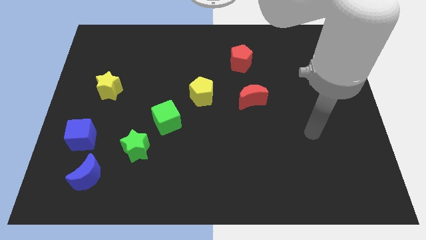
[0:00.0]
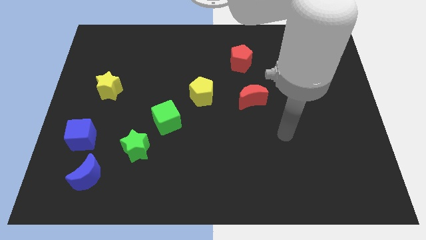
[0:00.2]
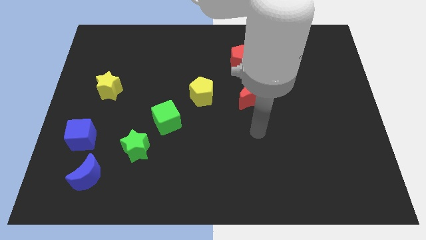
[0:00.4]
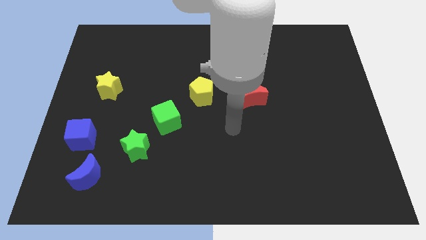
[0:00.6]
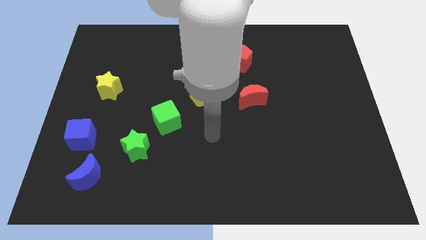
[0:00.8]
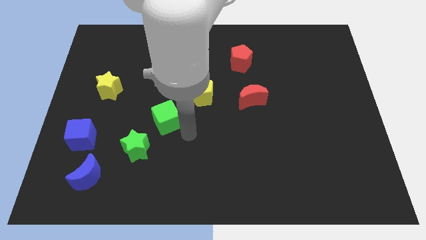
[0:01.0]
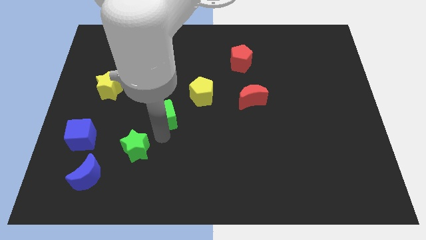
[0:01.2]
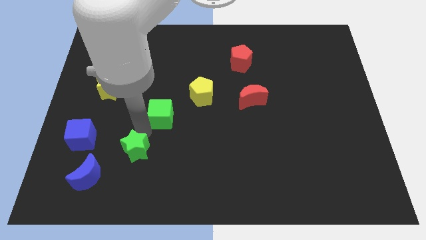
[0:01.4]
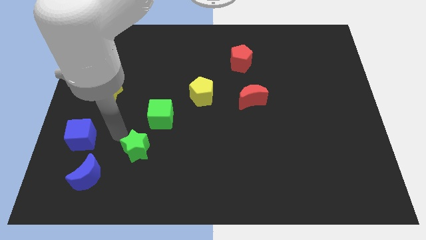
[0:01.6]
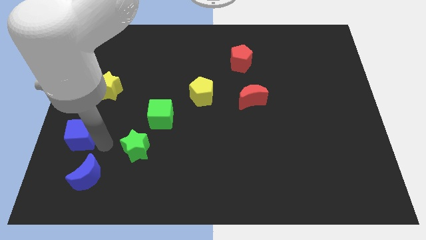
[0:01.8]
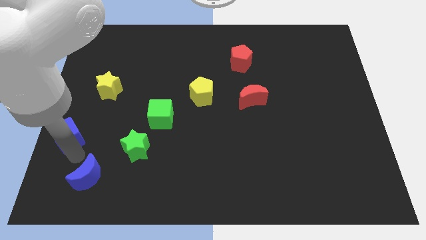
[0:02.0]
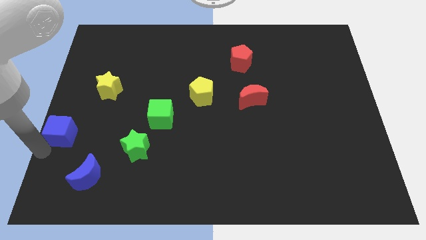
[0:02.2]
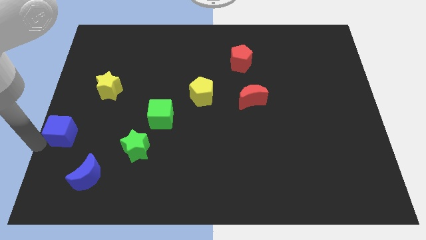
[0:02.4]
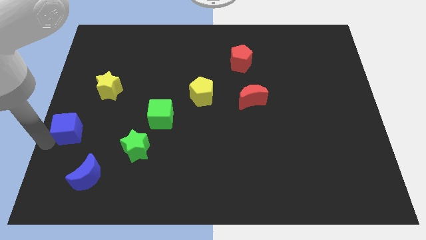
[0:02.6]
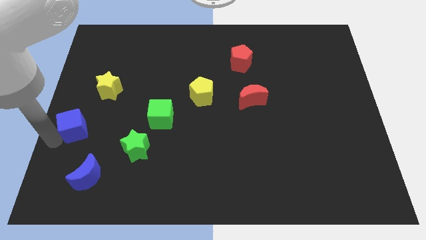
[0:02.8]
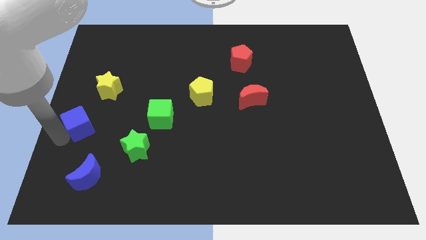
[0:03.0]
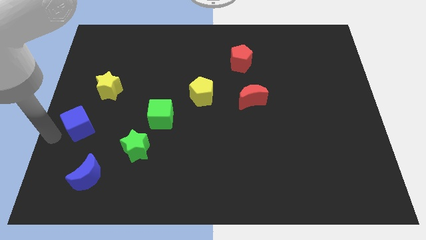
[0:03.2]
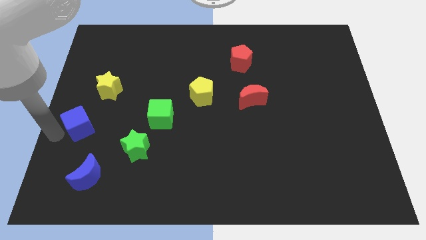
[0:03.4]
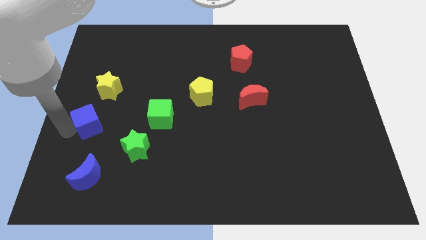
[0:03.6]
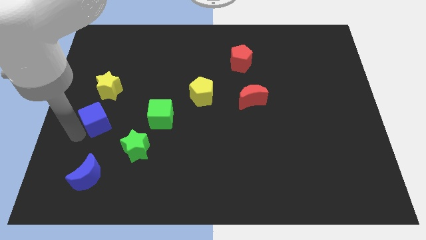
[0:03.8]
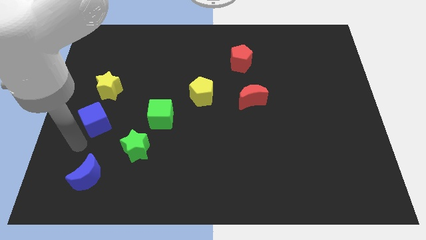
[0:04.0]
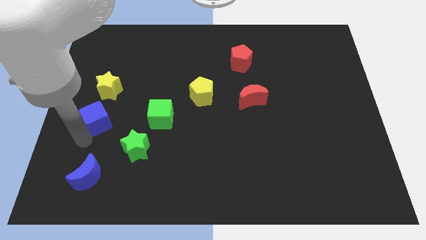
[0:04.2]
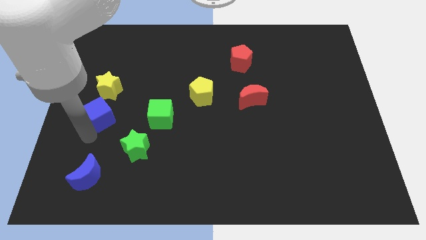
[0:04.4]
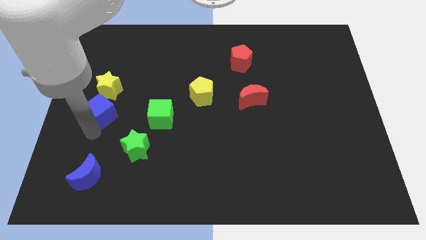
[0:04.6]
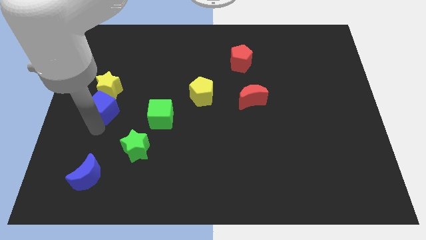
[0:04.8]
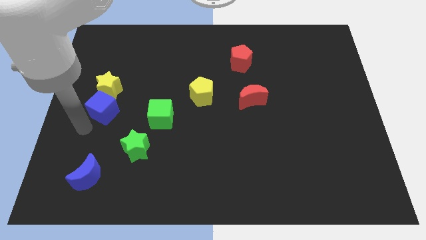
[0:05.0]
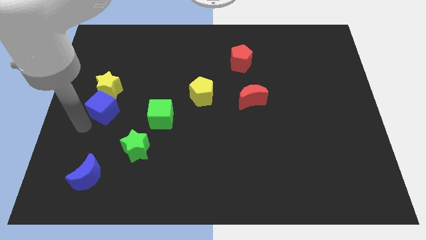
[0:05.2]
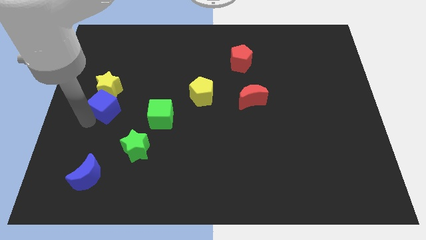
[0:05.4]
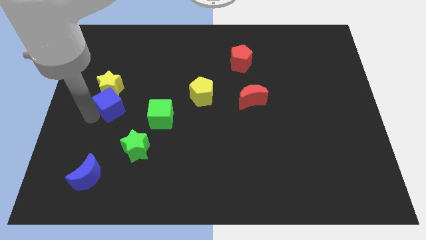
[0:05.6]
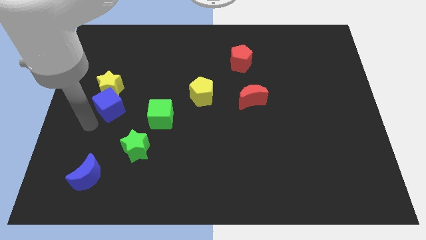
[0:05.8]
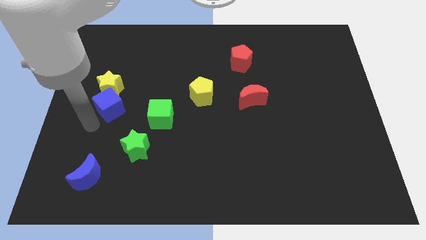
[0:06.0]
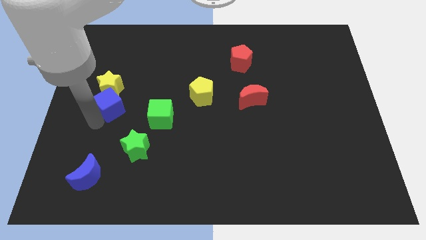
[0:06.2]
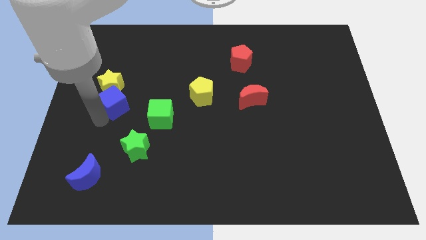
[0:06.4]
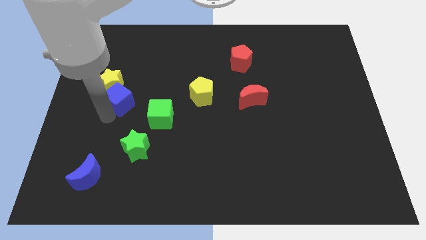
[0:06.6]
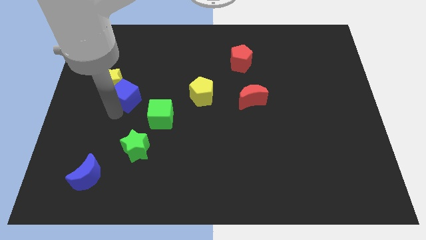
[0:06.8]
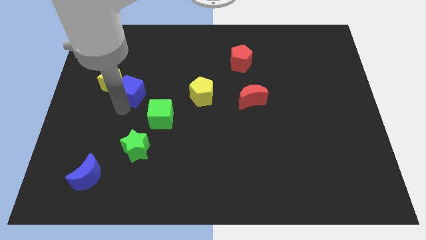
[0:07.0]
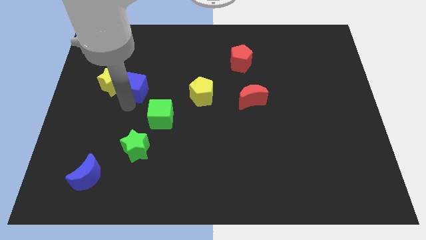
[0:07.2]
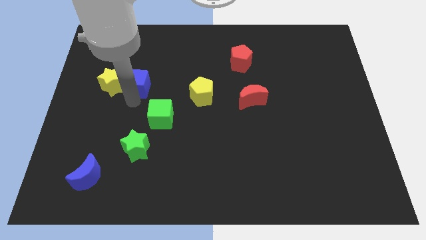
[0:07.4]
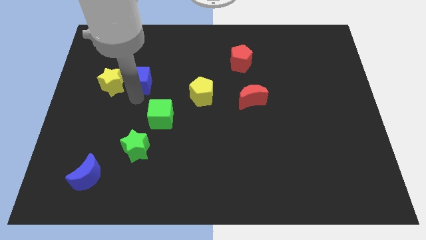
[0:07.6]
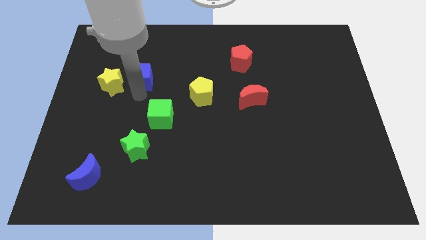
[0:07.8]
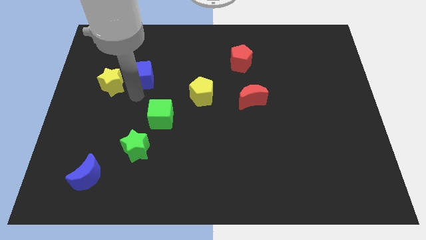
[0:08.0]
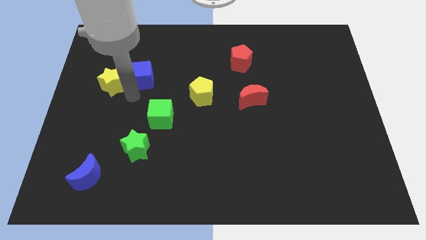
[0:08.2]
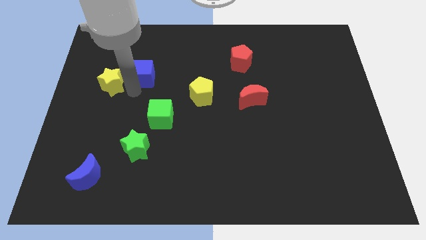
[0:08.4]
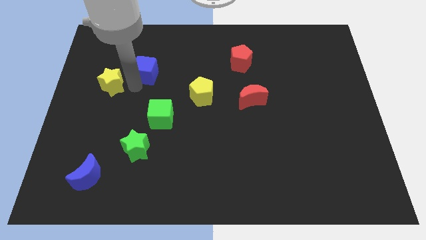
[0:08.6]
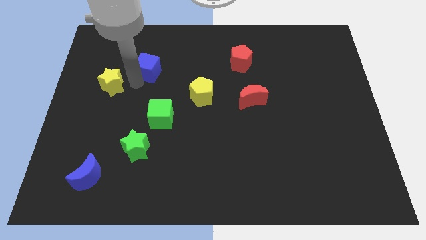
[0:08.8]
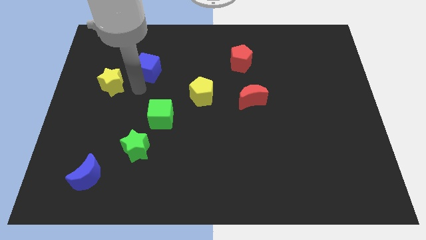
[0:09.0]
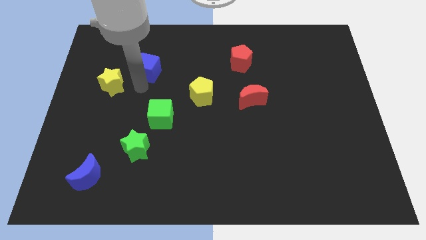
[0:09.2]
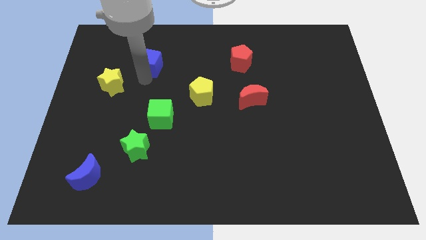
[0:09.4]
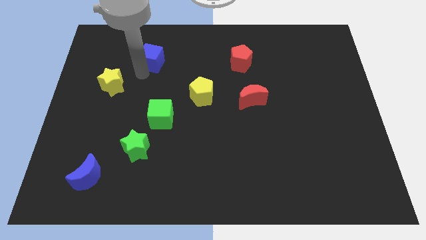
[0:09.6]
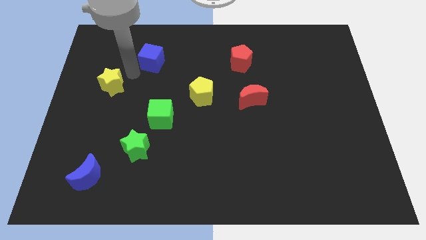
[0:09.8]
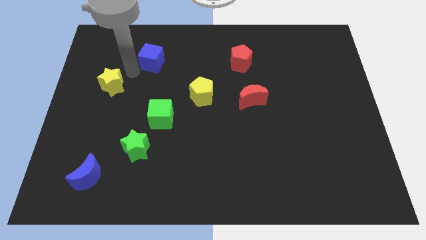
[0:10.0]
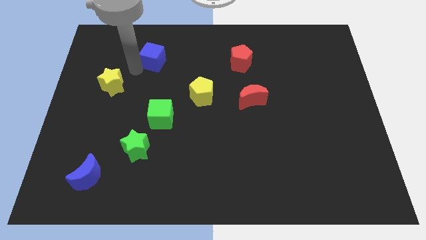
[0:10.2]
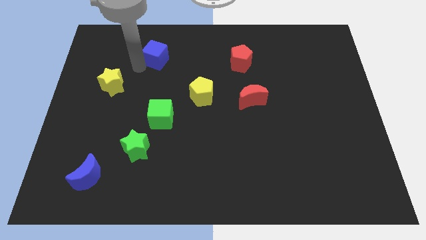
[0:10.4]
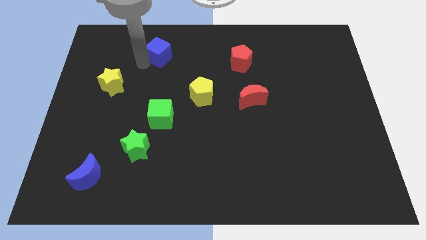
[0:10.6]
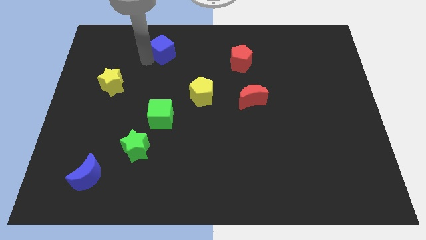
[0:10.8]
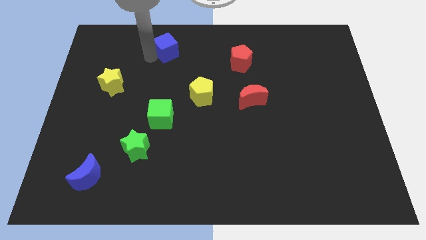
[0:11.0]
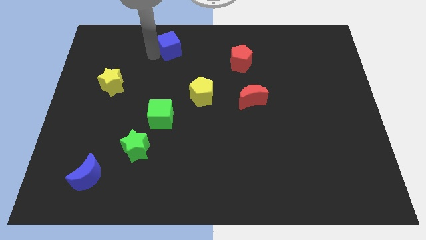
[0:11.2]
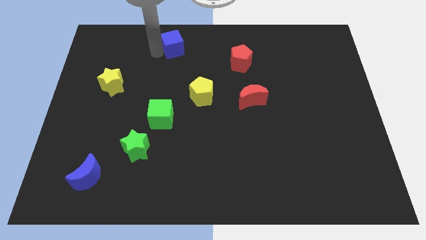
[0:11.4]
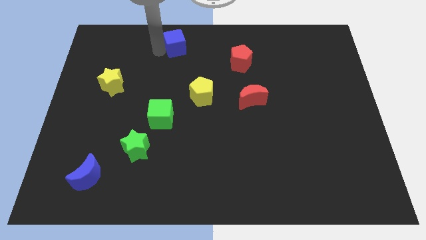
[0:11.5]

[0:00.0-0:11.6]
move the blue cube to the towards your base
